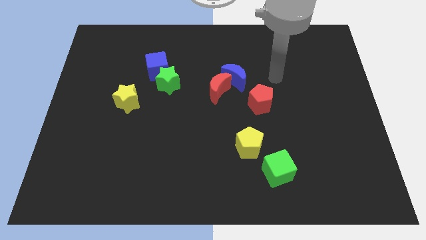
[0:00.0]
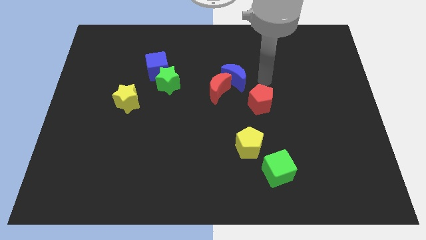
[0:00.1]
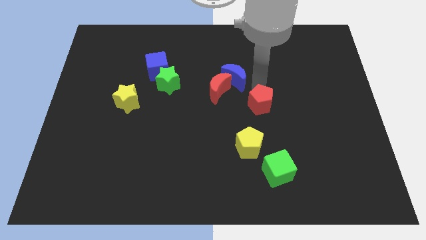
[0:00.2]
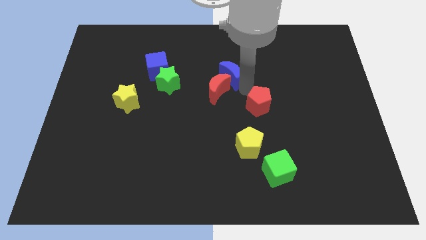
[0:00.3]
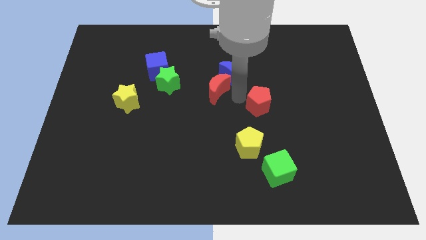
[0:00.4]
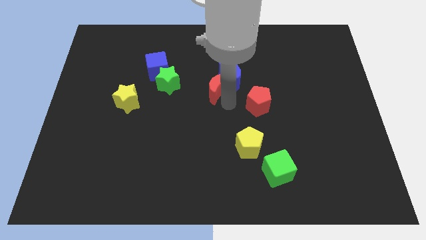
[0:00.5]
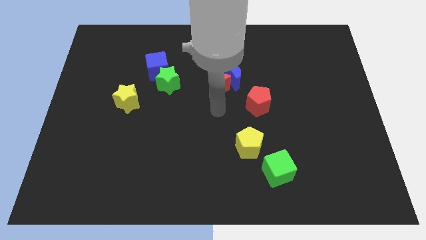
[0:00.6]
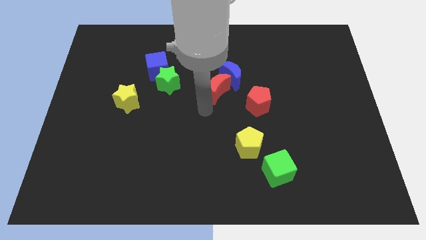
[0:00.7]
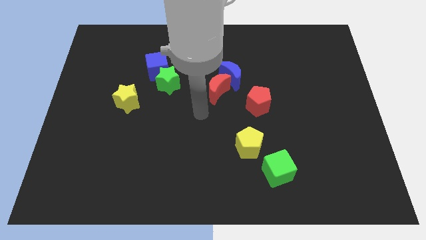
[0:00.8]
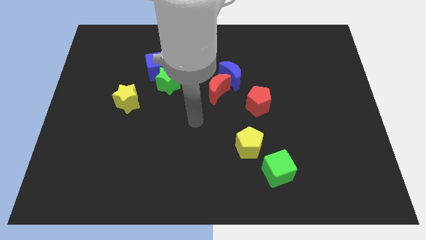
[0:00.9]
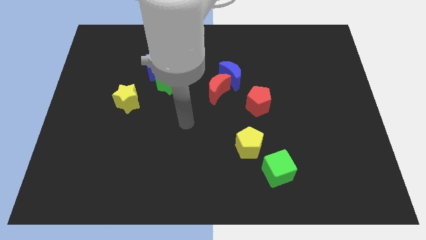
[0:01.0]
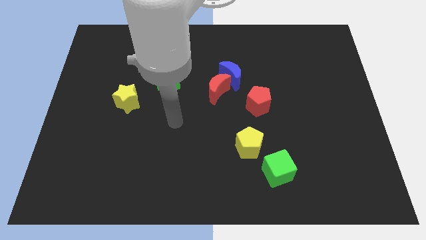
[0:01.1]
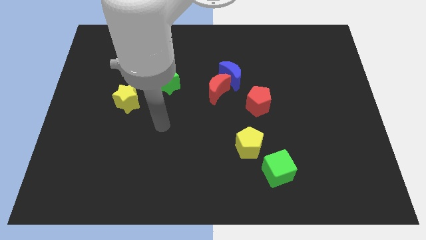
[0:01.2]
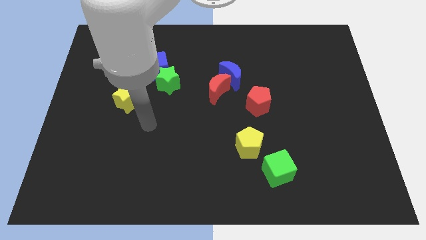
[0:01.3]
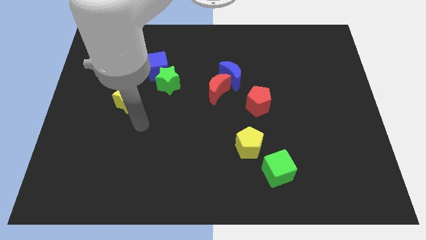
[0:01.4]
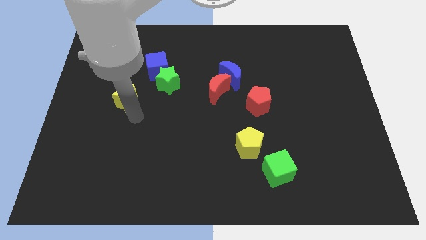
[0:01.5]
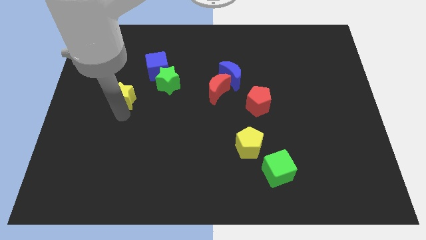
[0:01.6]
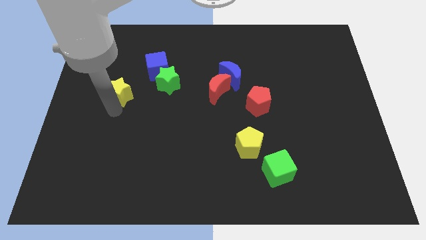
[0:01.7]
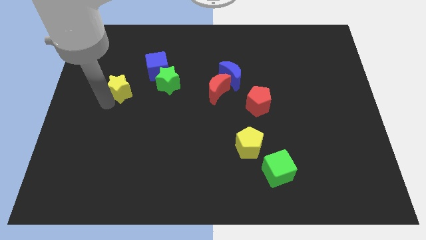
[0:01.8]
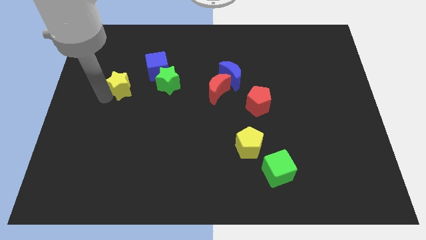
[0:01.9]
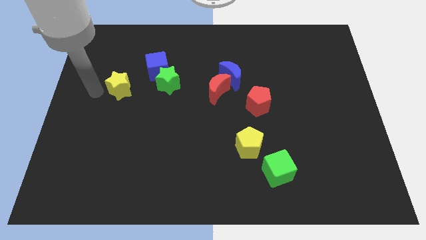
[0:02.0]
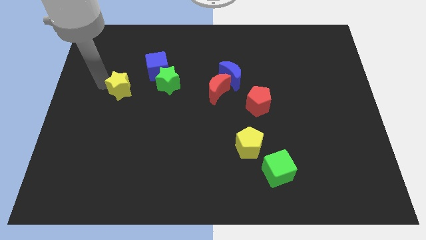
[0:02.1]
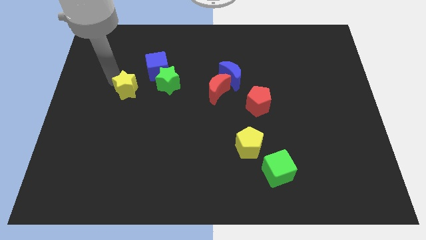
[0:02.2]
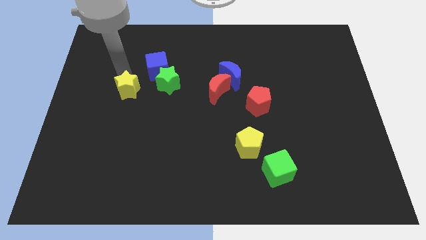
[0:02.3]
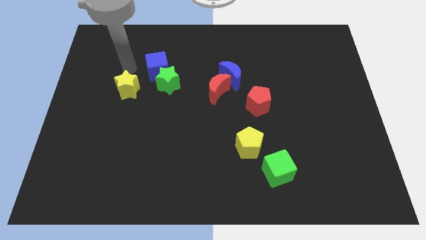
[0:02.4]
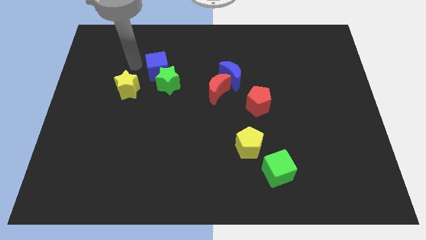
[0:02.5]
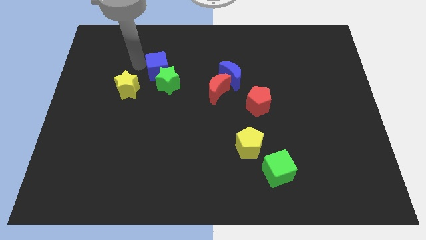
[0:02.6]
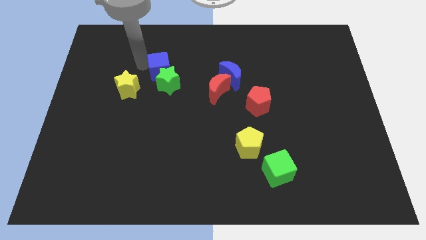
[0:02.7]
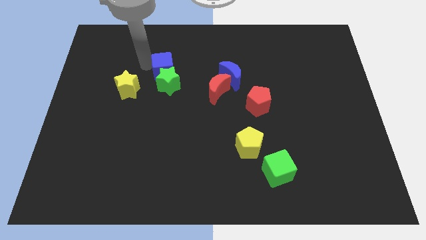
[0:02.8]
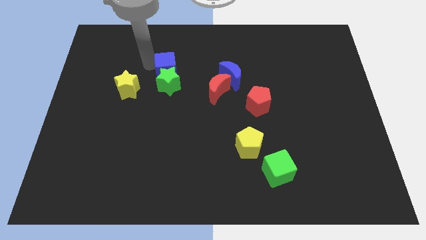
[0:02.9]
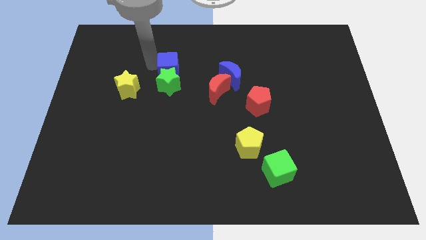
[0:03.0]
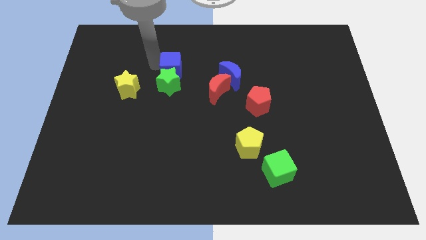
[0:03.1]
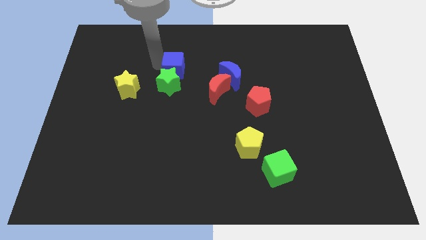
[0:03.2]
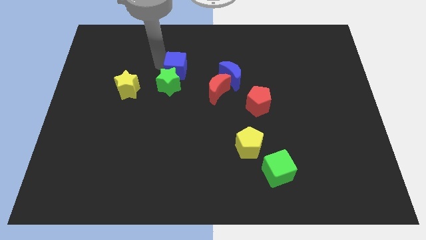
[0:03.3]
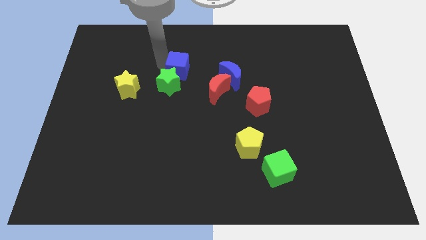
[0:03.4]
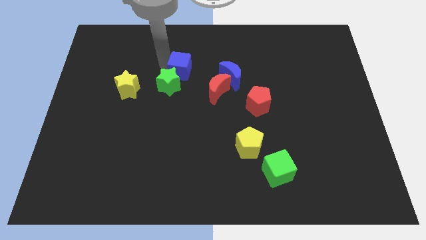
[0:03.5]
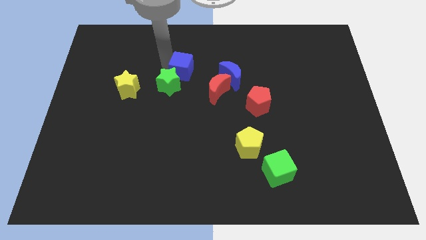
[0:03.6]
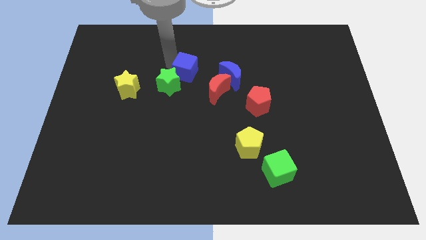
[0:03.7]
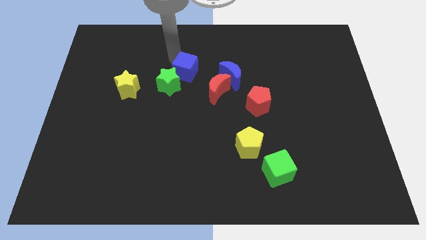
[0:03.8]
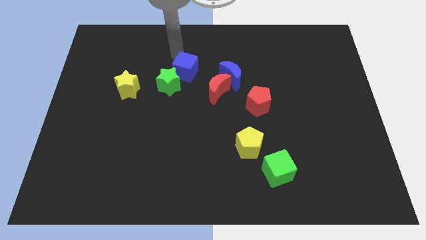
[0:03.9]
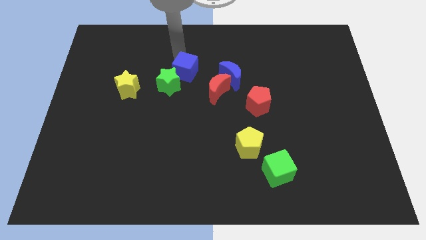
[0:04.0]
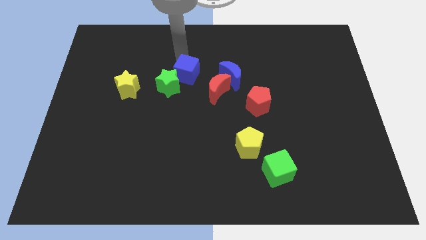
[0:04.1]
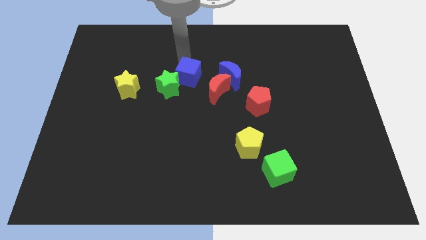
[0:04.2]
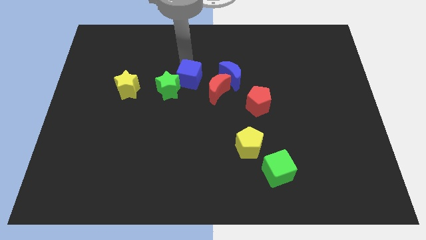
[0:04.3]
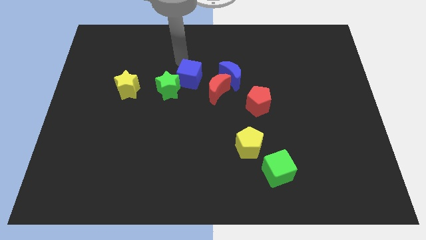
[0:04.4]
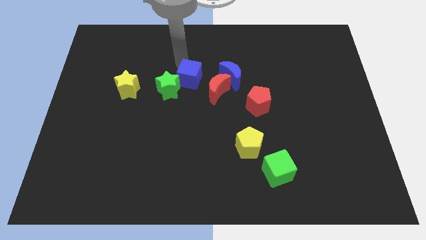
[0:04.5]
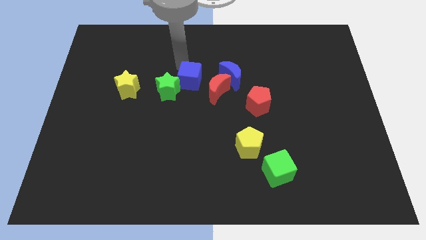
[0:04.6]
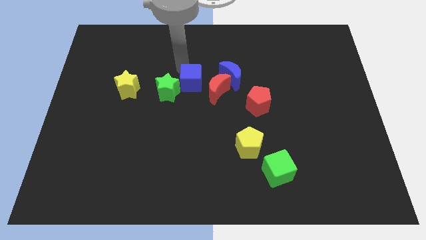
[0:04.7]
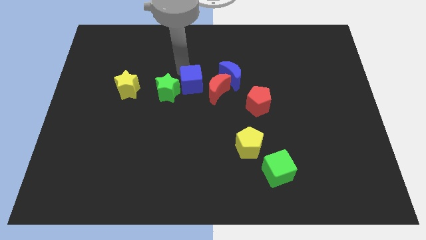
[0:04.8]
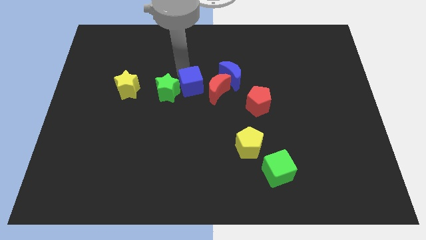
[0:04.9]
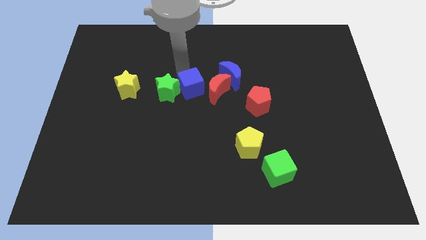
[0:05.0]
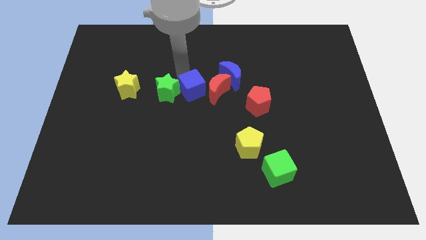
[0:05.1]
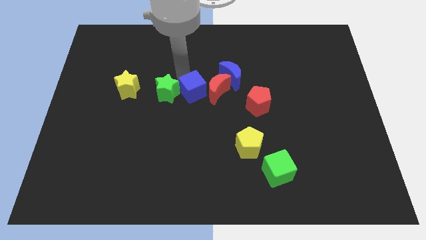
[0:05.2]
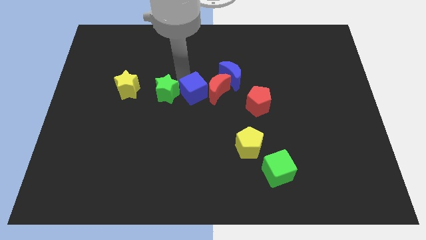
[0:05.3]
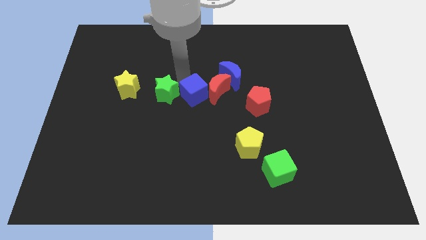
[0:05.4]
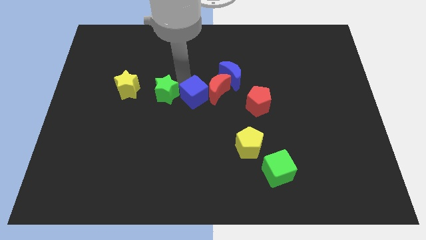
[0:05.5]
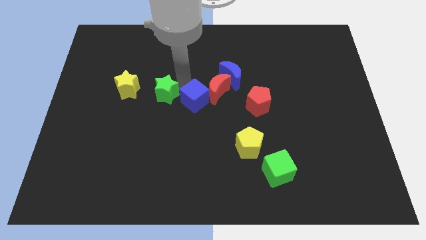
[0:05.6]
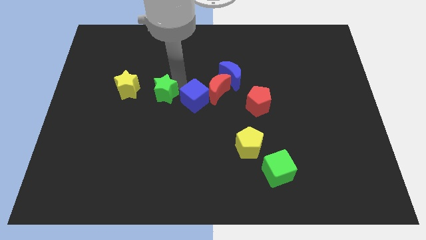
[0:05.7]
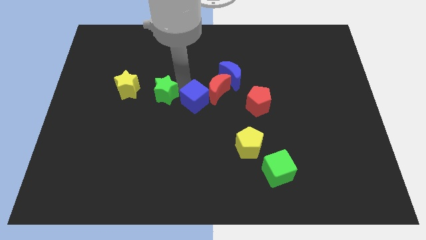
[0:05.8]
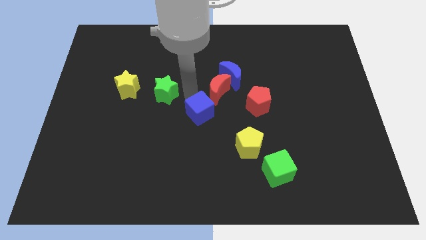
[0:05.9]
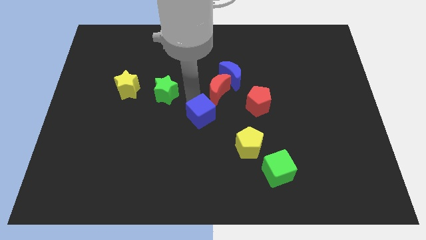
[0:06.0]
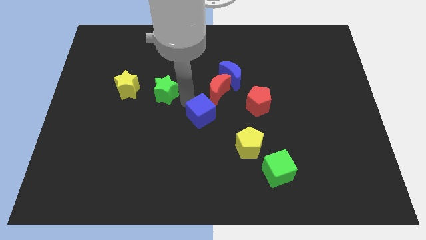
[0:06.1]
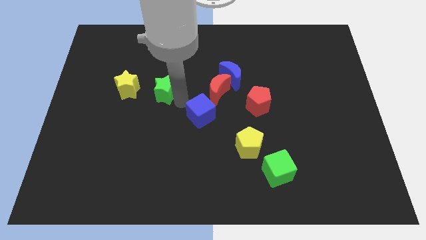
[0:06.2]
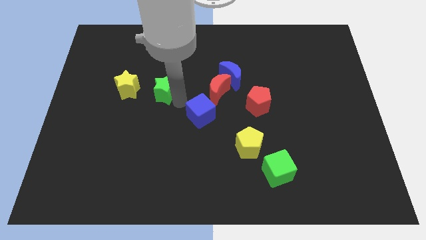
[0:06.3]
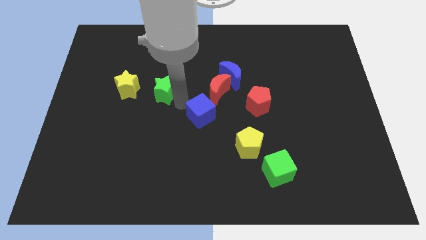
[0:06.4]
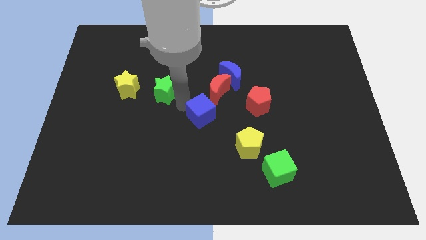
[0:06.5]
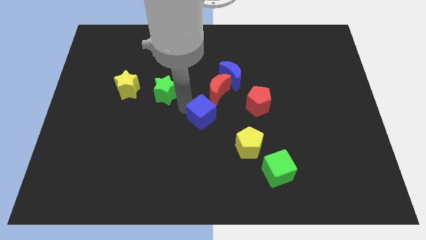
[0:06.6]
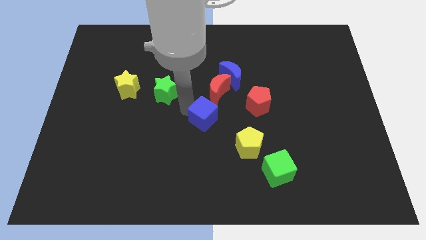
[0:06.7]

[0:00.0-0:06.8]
slide the blue cube to the top left of the yellow pentagon

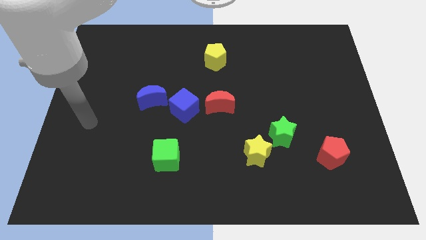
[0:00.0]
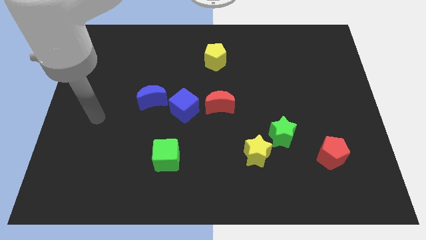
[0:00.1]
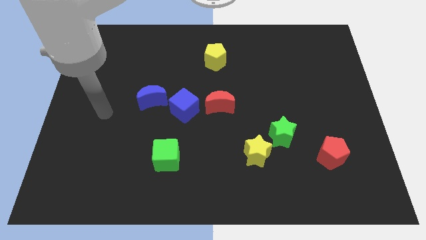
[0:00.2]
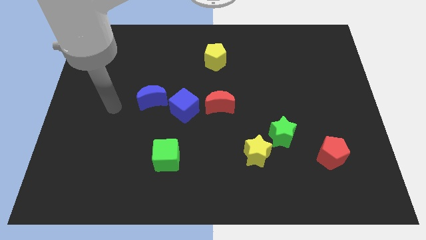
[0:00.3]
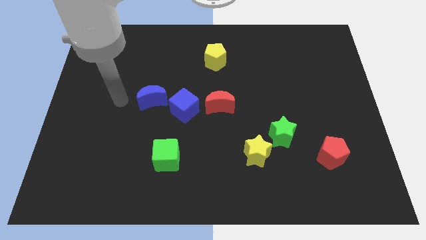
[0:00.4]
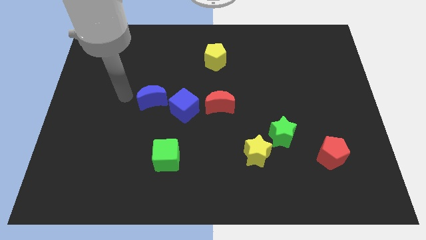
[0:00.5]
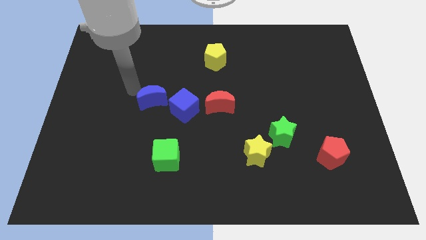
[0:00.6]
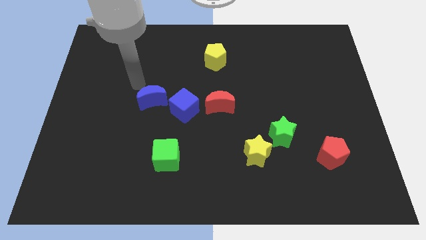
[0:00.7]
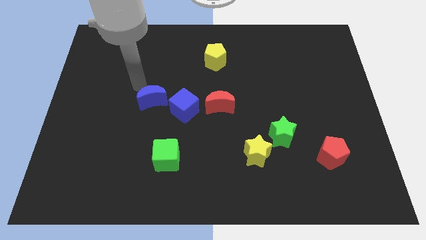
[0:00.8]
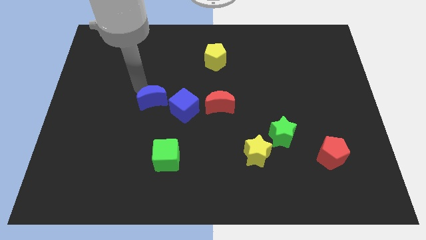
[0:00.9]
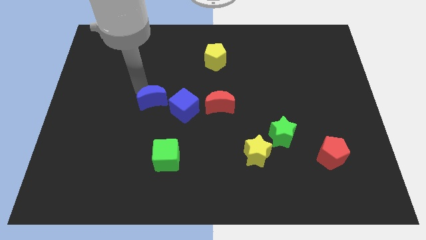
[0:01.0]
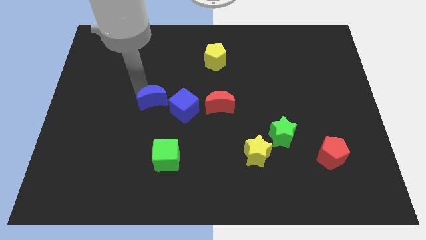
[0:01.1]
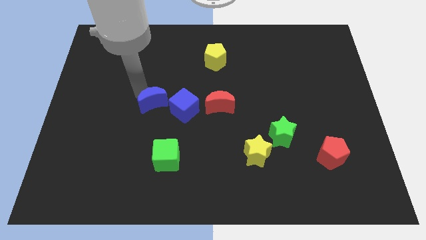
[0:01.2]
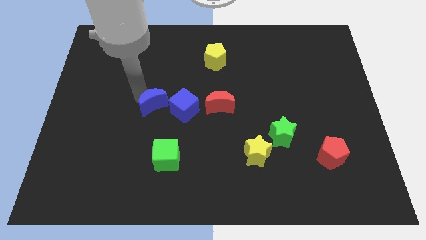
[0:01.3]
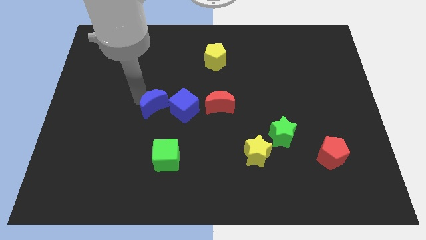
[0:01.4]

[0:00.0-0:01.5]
slide the blue moon to the top side of the green cube
